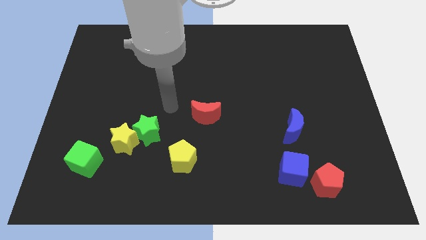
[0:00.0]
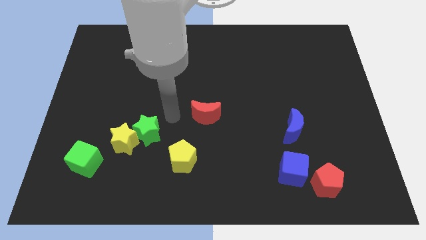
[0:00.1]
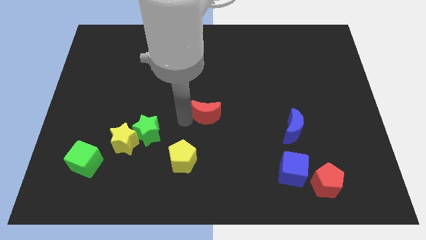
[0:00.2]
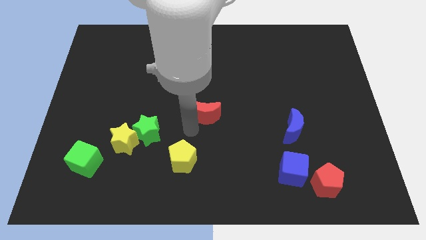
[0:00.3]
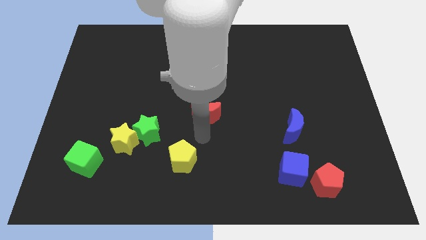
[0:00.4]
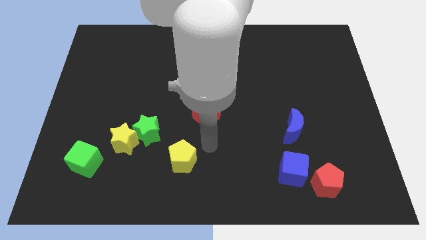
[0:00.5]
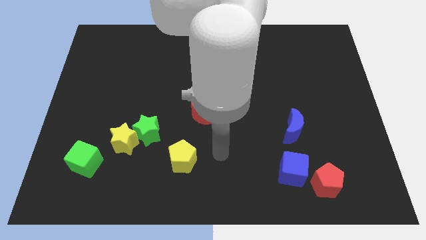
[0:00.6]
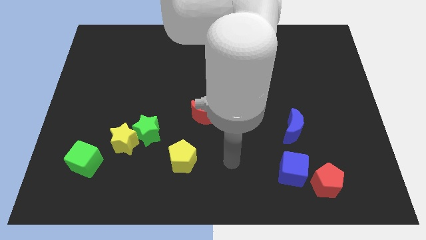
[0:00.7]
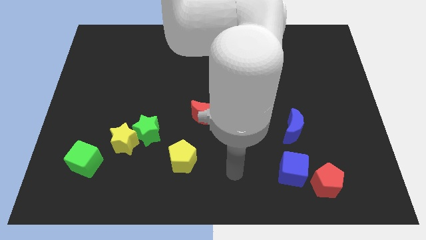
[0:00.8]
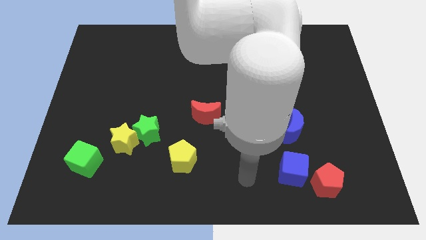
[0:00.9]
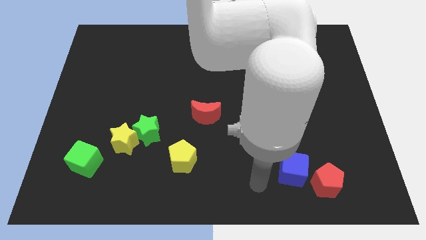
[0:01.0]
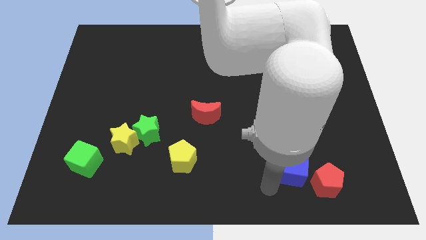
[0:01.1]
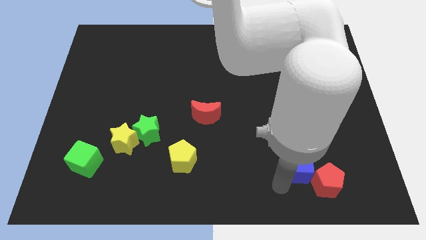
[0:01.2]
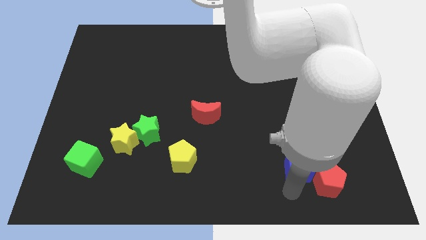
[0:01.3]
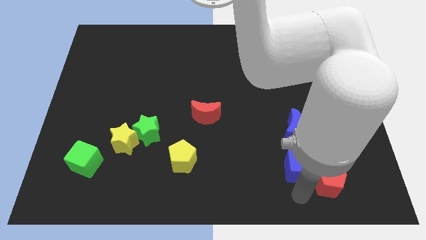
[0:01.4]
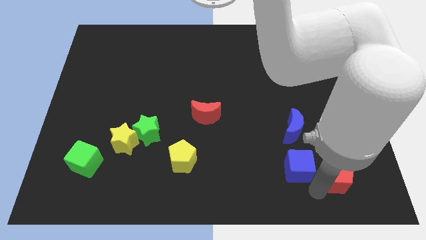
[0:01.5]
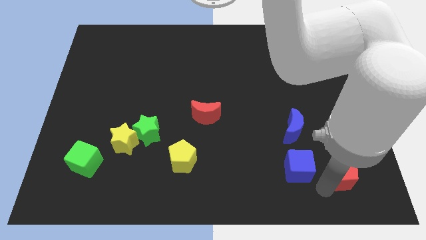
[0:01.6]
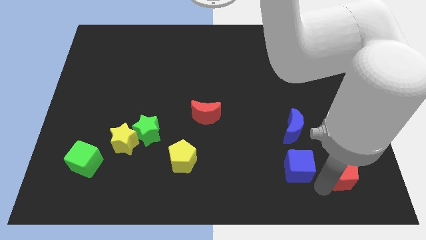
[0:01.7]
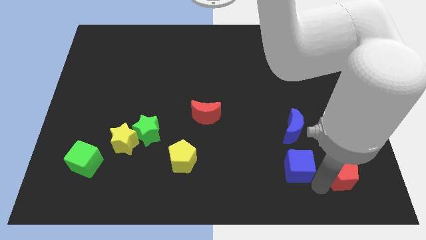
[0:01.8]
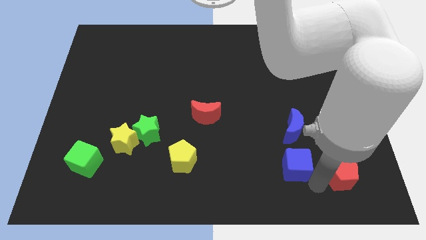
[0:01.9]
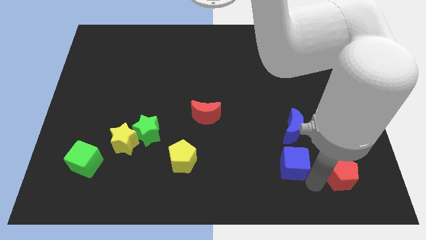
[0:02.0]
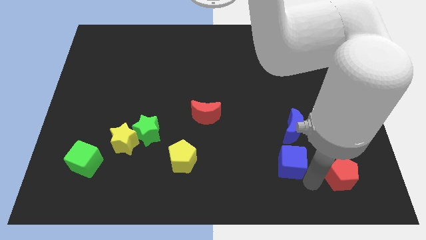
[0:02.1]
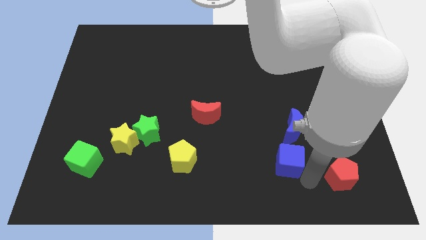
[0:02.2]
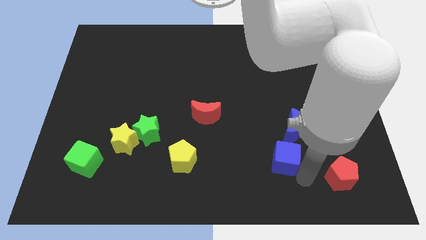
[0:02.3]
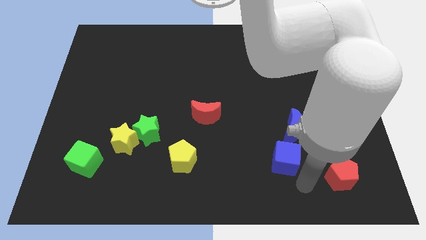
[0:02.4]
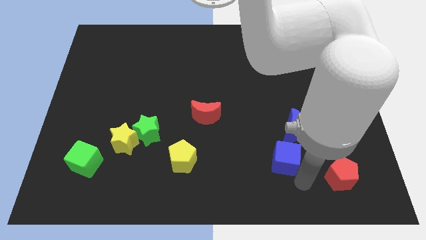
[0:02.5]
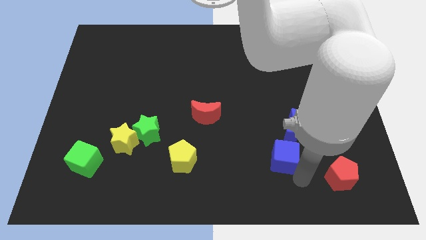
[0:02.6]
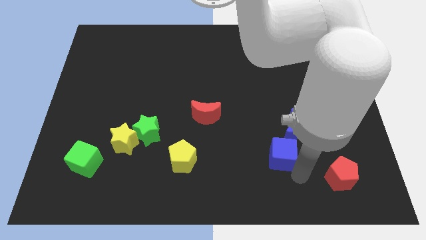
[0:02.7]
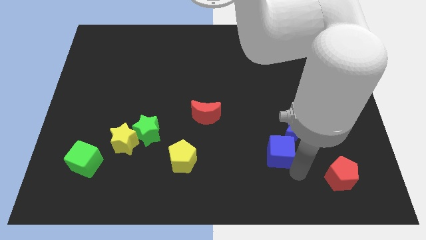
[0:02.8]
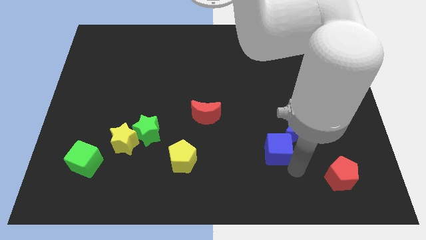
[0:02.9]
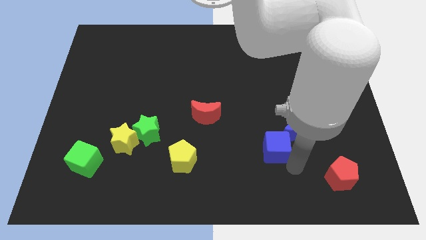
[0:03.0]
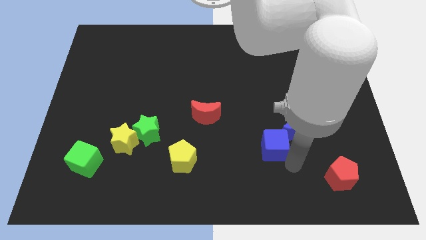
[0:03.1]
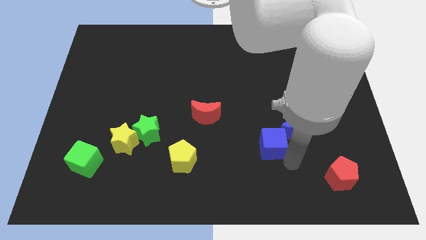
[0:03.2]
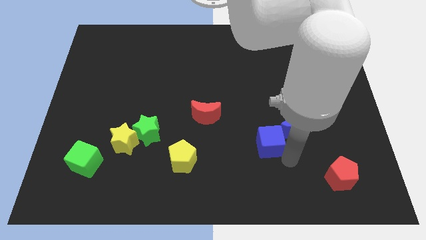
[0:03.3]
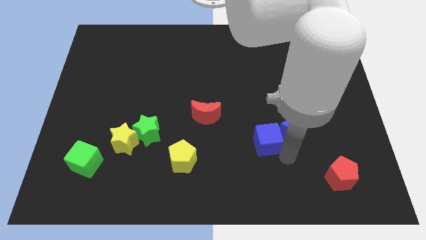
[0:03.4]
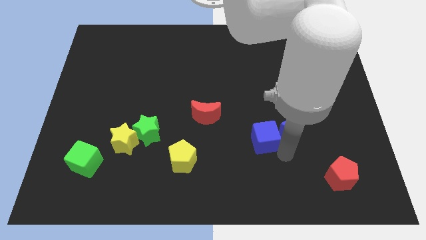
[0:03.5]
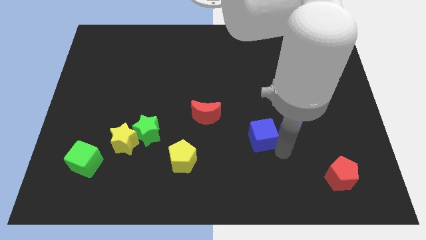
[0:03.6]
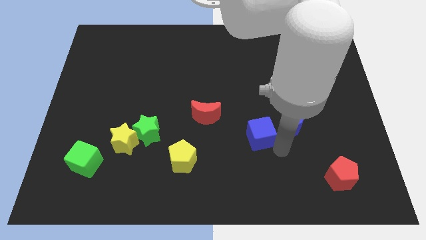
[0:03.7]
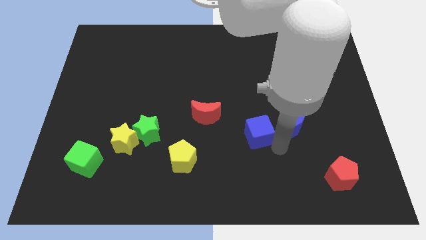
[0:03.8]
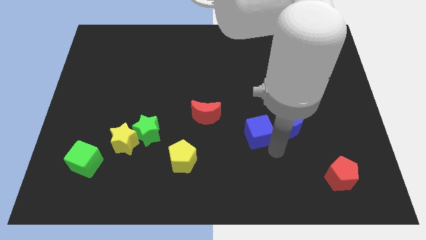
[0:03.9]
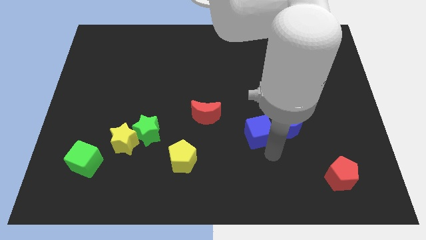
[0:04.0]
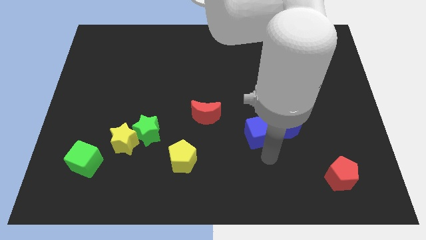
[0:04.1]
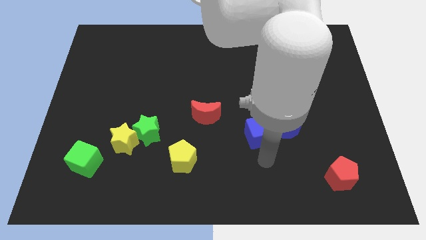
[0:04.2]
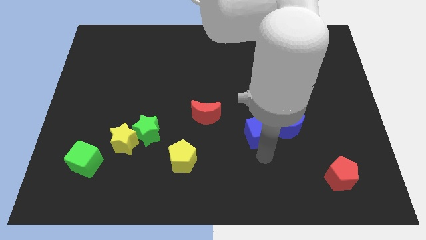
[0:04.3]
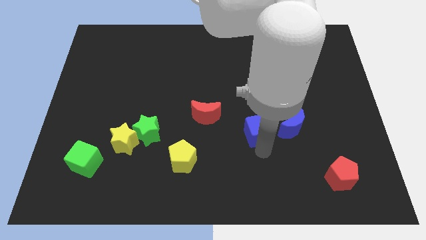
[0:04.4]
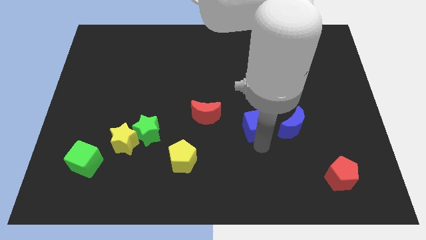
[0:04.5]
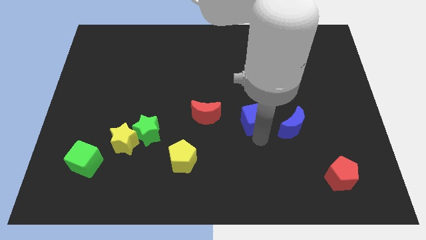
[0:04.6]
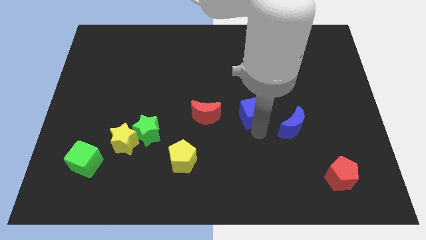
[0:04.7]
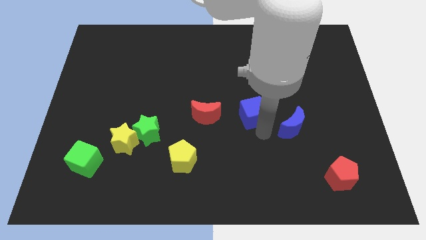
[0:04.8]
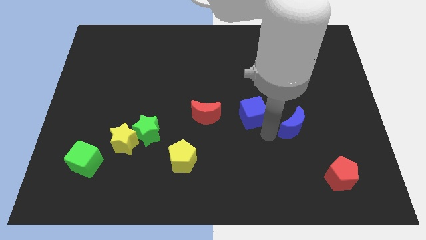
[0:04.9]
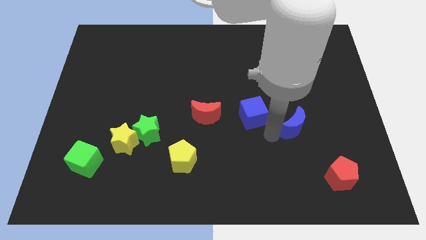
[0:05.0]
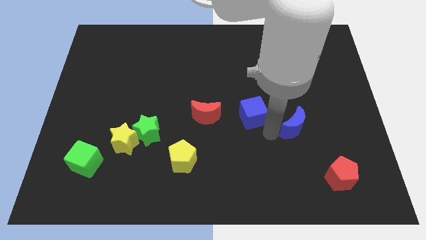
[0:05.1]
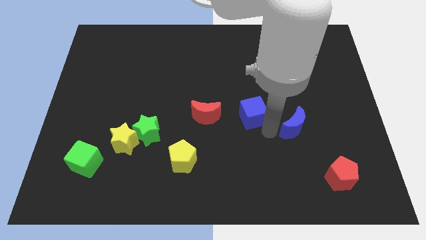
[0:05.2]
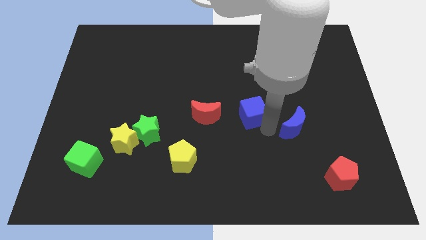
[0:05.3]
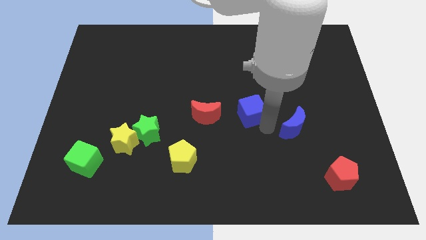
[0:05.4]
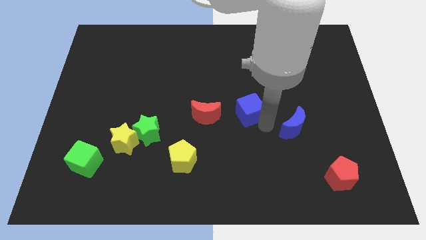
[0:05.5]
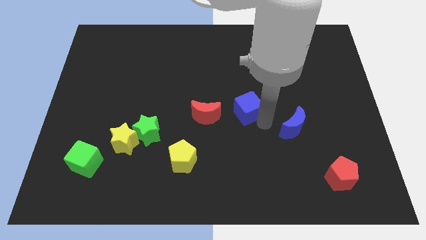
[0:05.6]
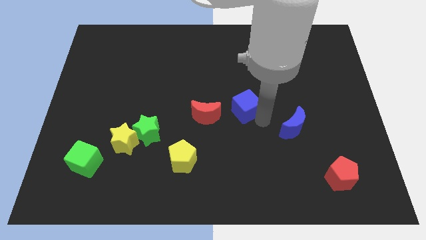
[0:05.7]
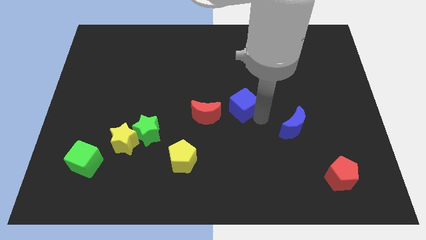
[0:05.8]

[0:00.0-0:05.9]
slide the blue cube to the top right side of the red moon

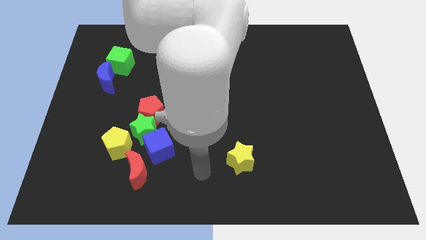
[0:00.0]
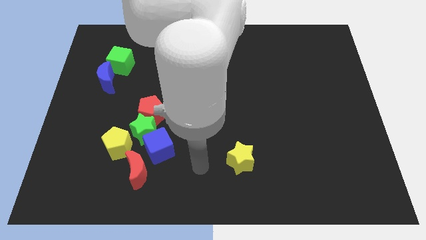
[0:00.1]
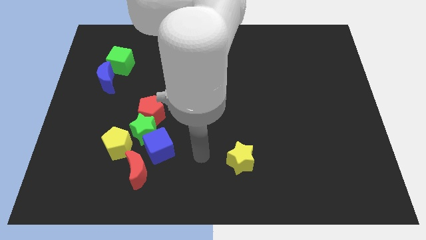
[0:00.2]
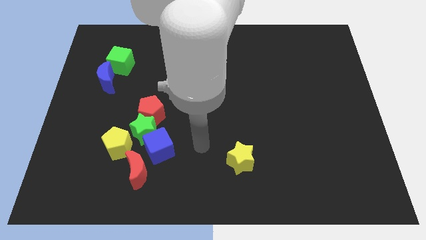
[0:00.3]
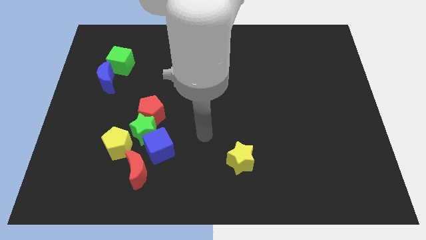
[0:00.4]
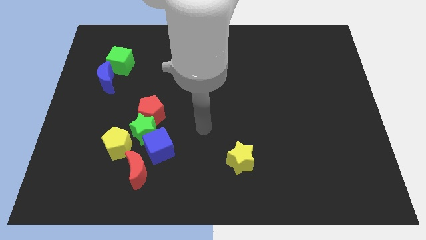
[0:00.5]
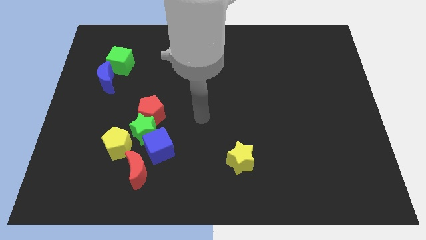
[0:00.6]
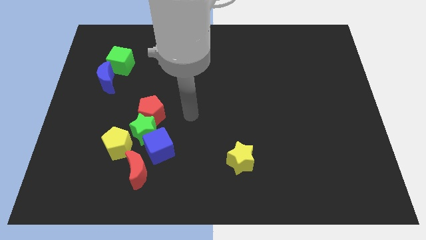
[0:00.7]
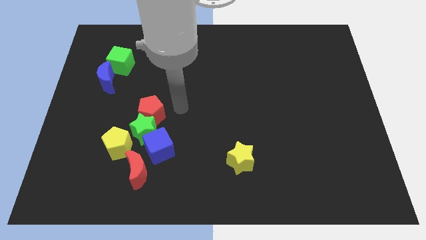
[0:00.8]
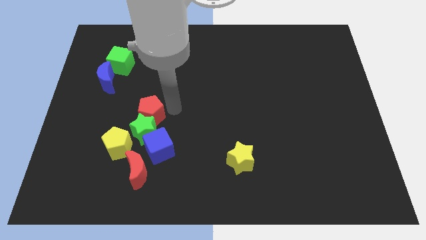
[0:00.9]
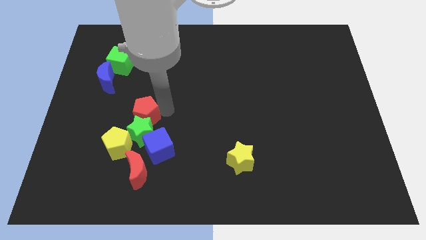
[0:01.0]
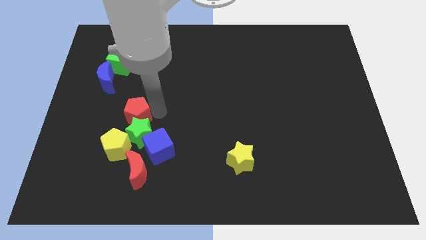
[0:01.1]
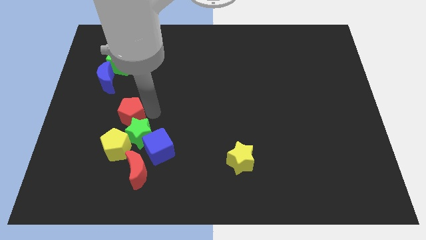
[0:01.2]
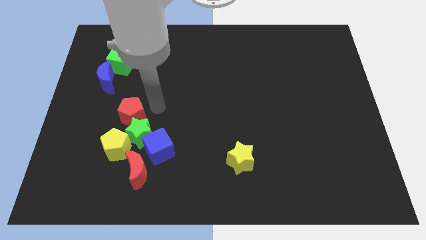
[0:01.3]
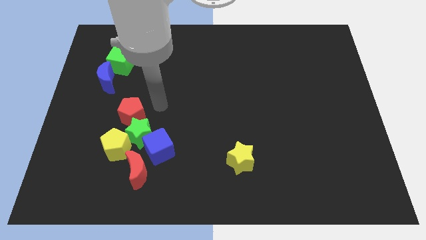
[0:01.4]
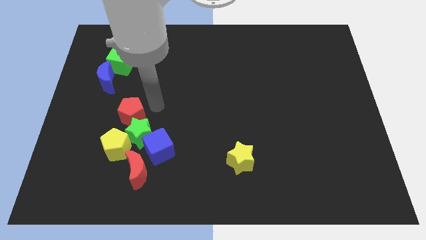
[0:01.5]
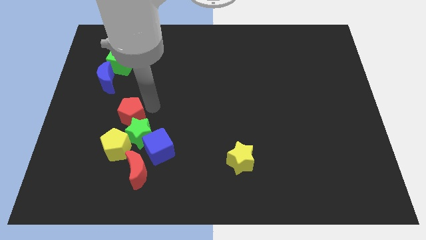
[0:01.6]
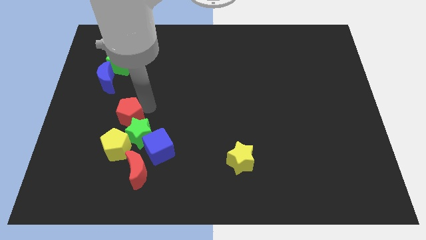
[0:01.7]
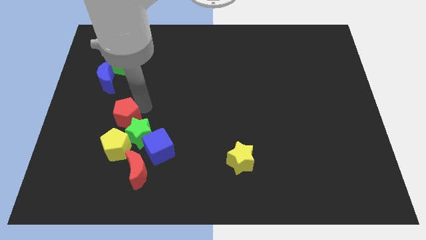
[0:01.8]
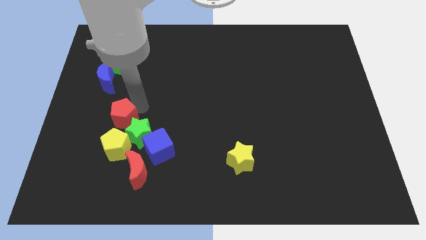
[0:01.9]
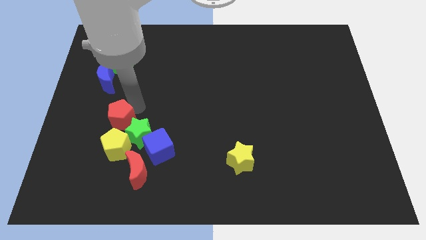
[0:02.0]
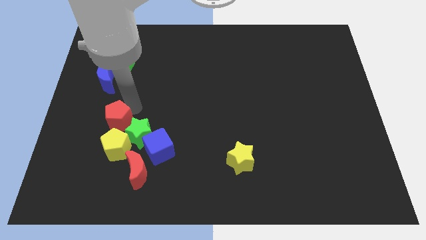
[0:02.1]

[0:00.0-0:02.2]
put the red pentagon diagonally up and to the left of the yellow pentagon
